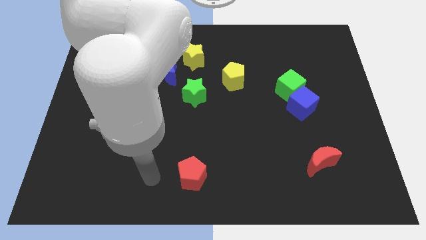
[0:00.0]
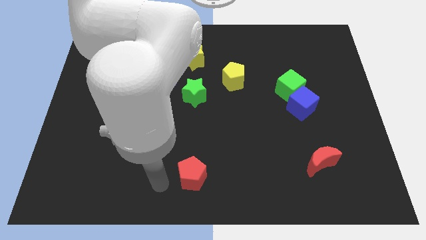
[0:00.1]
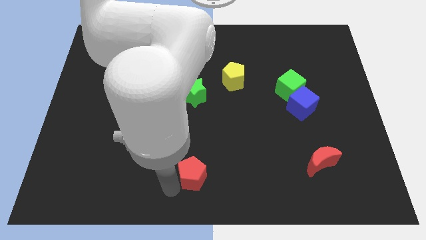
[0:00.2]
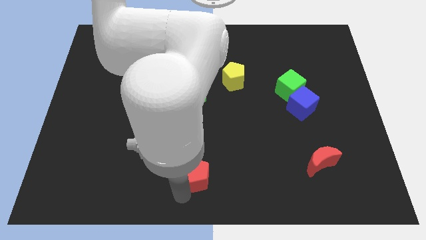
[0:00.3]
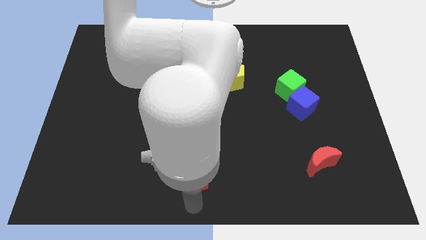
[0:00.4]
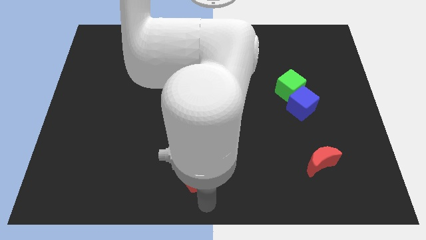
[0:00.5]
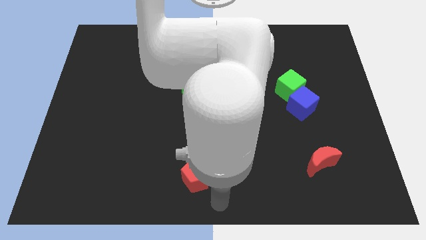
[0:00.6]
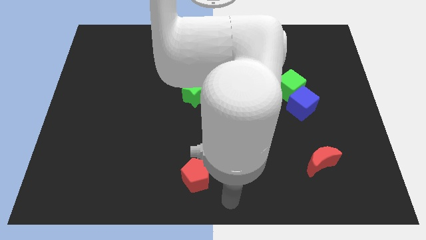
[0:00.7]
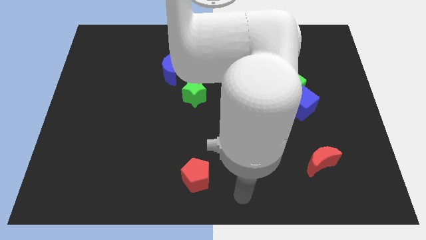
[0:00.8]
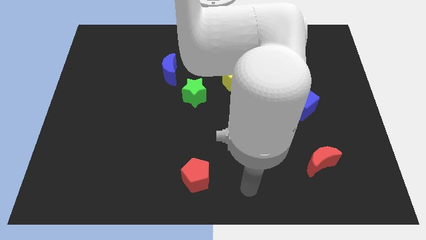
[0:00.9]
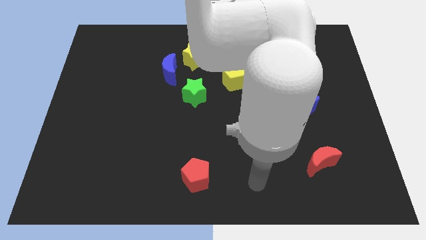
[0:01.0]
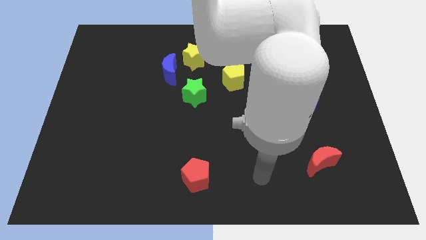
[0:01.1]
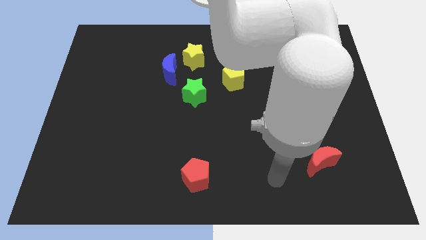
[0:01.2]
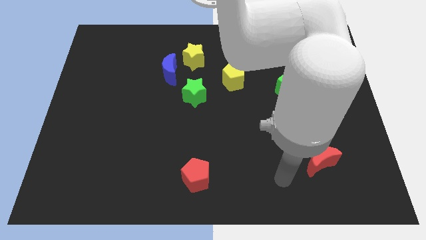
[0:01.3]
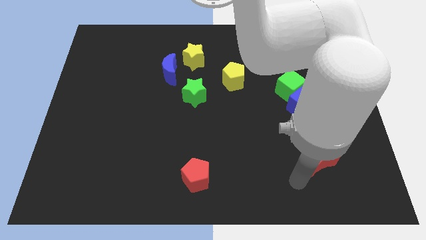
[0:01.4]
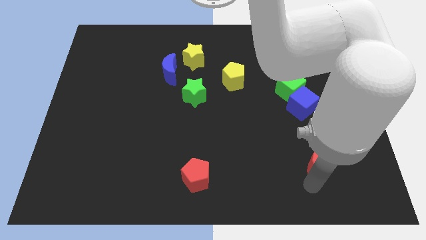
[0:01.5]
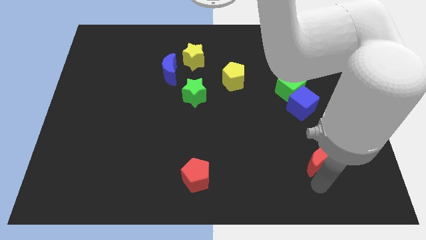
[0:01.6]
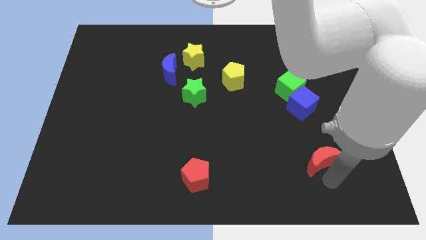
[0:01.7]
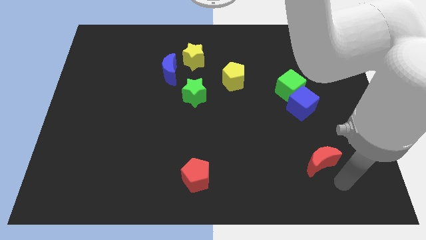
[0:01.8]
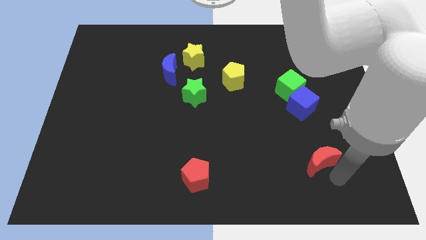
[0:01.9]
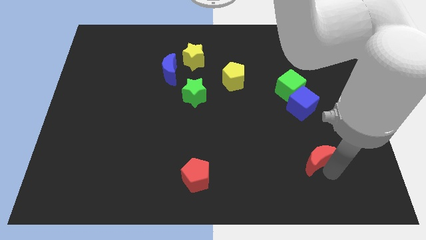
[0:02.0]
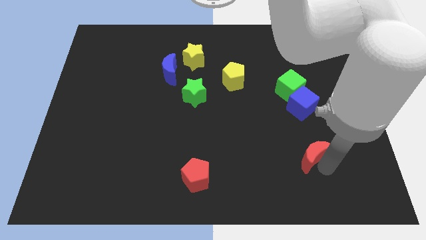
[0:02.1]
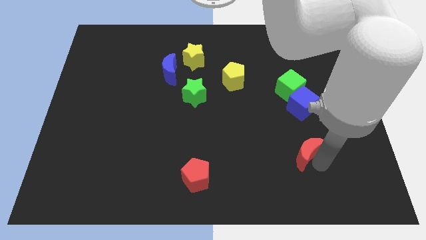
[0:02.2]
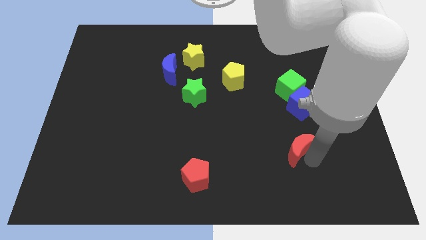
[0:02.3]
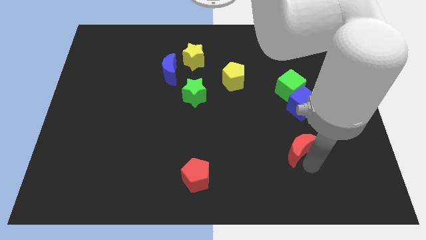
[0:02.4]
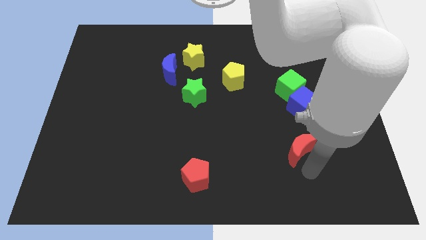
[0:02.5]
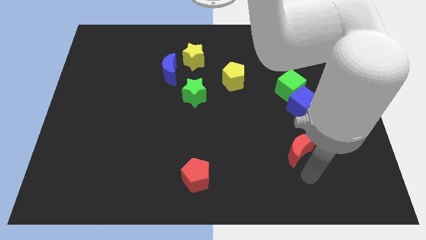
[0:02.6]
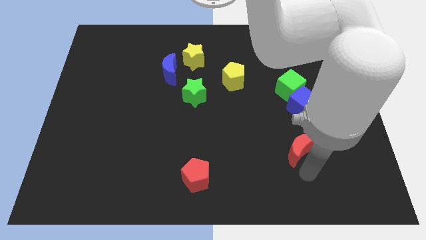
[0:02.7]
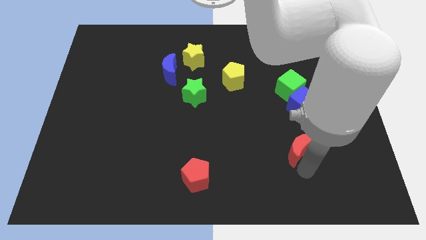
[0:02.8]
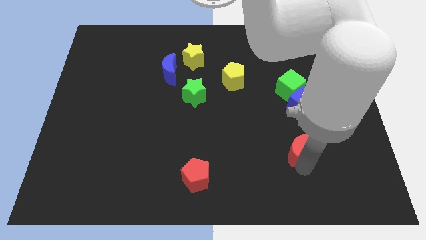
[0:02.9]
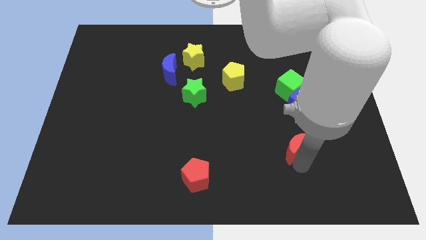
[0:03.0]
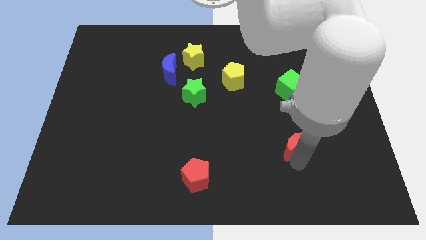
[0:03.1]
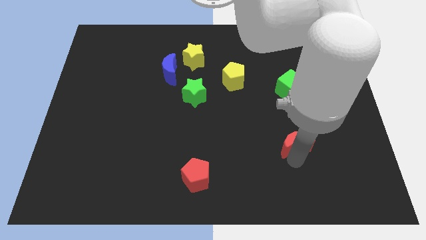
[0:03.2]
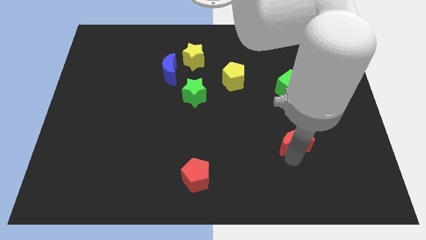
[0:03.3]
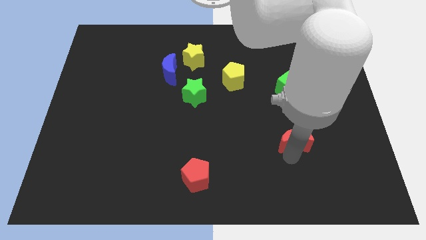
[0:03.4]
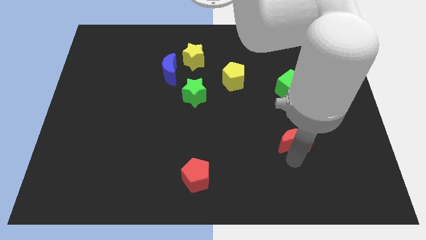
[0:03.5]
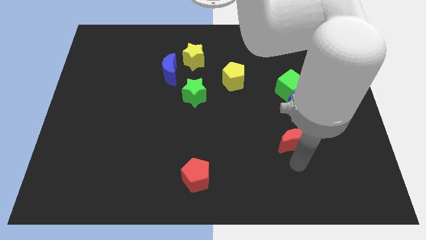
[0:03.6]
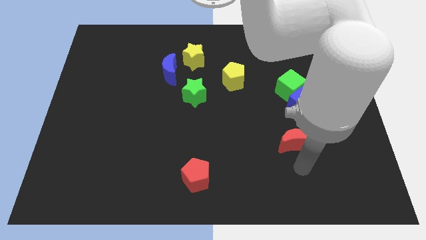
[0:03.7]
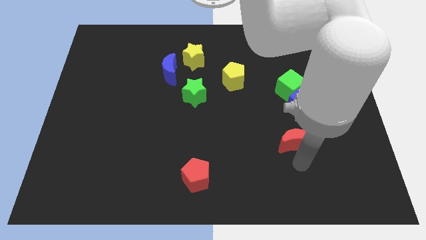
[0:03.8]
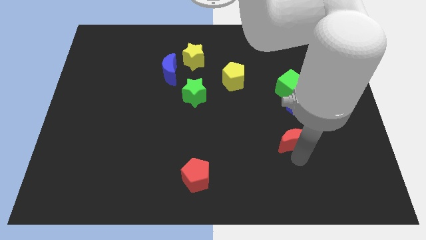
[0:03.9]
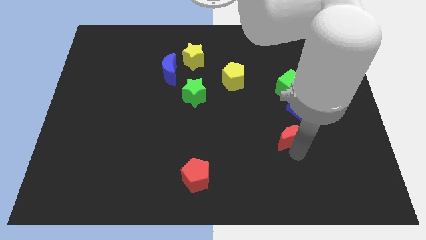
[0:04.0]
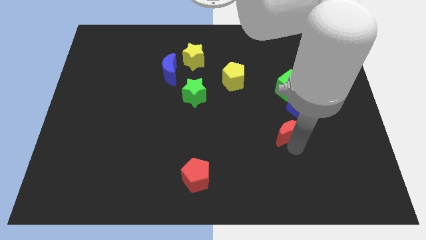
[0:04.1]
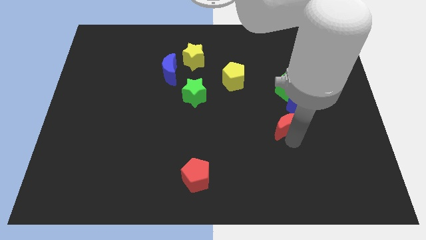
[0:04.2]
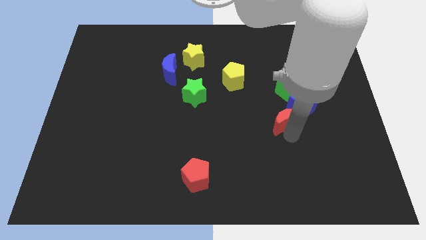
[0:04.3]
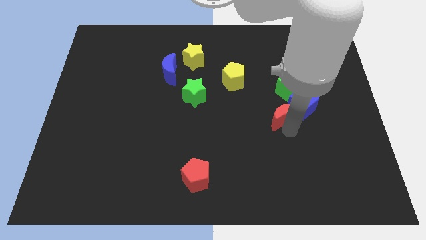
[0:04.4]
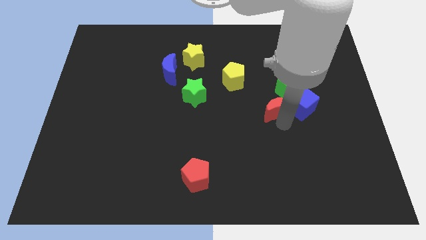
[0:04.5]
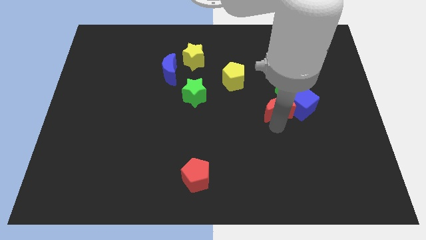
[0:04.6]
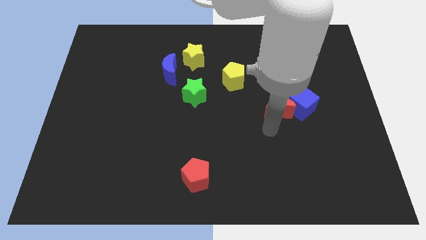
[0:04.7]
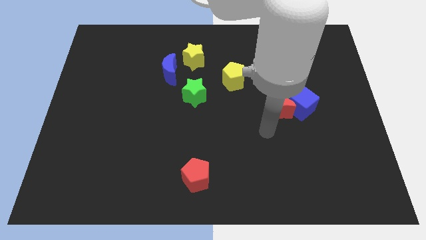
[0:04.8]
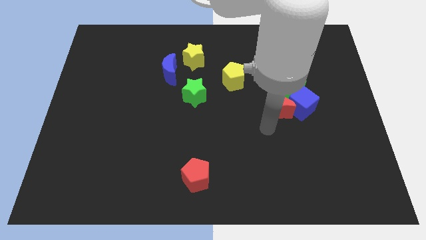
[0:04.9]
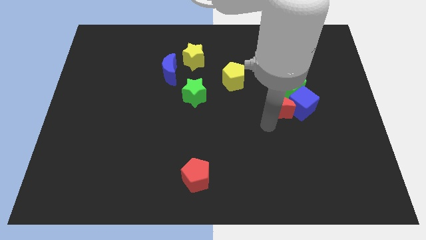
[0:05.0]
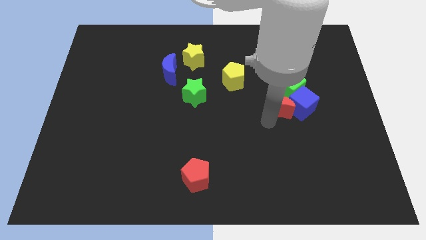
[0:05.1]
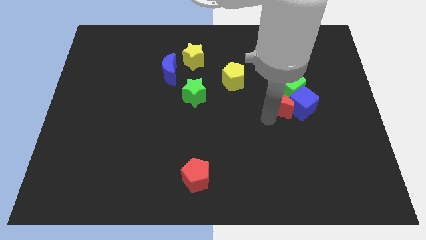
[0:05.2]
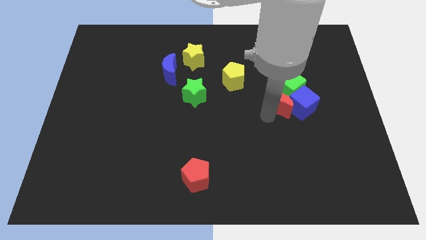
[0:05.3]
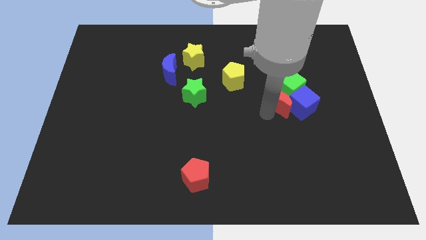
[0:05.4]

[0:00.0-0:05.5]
move the red moon close to the green cube

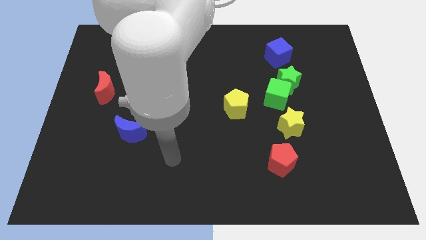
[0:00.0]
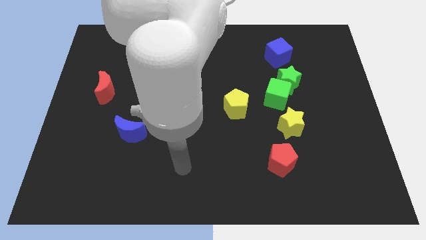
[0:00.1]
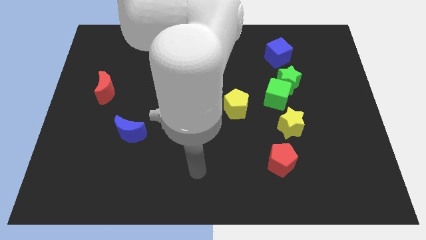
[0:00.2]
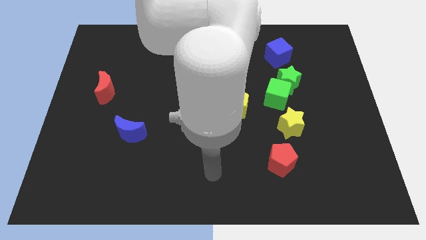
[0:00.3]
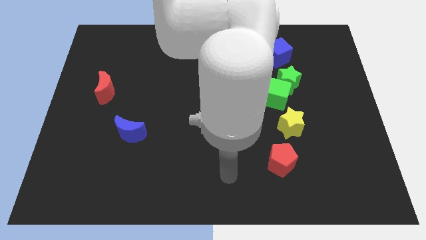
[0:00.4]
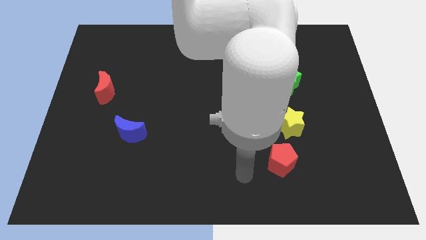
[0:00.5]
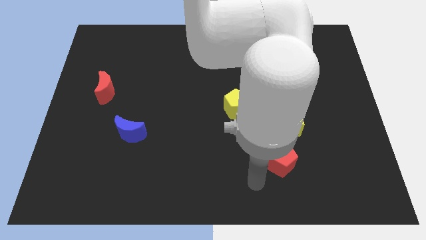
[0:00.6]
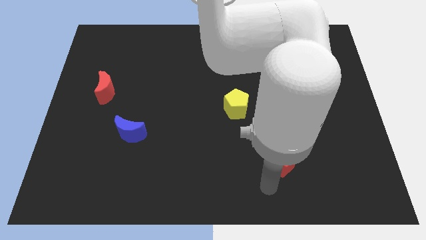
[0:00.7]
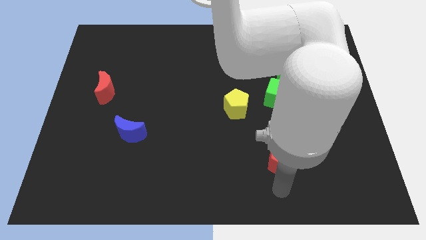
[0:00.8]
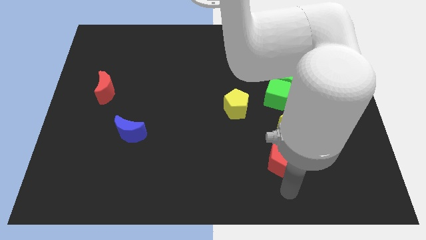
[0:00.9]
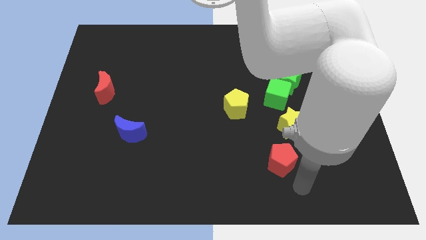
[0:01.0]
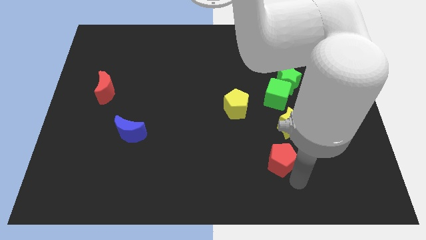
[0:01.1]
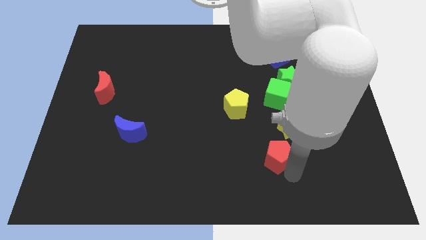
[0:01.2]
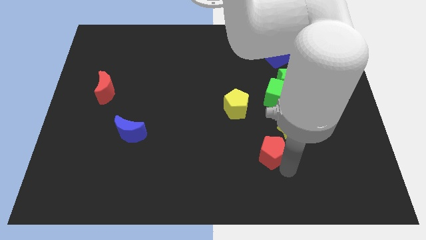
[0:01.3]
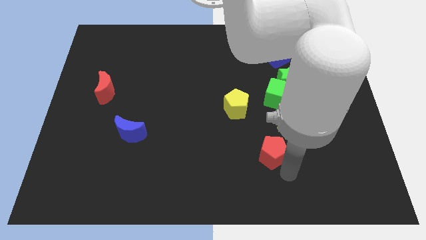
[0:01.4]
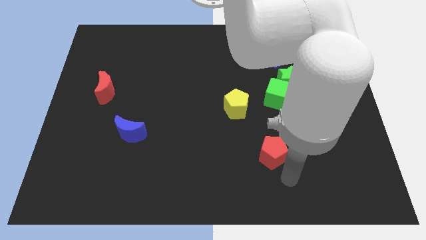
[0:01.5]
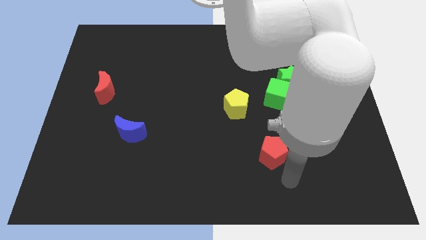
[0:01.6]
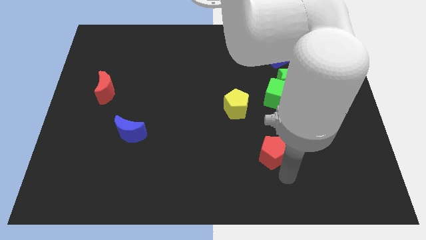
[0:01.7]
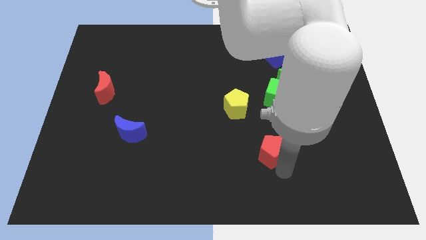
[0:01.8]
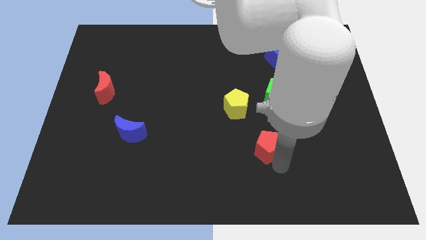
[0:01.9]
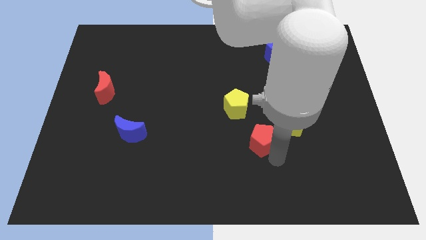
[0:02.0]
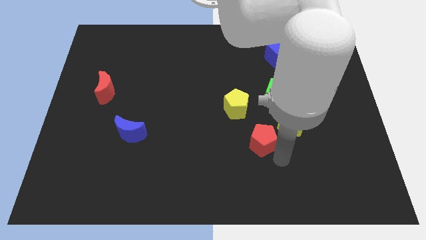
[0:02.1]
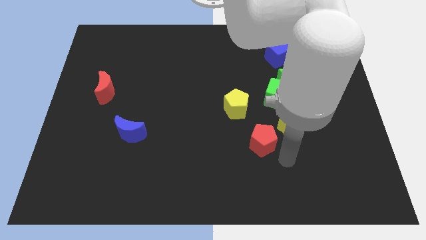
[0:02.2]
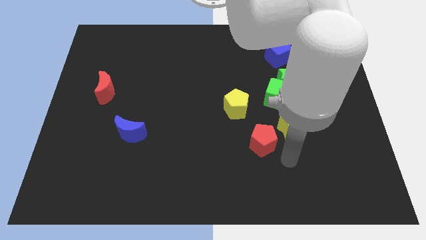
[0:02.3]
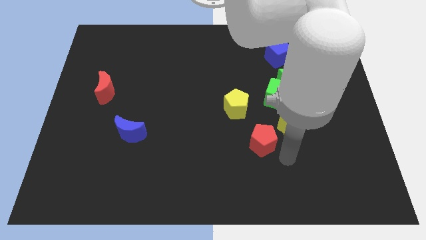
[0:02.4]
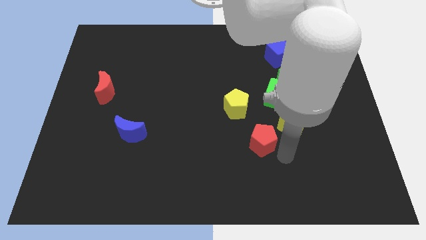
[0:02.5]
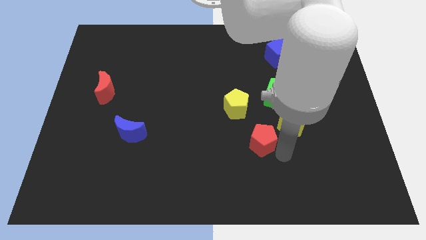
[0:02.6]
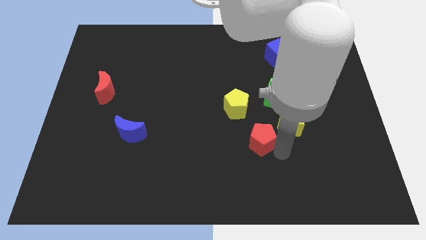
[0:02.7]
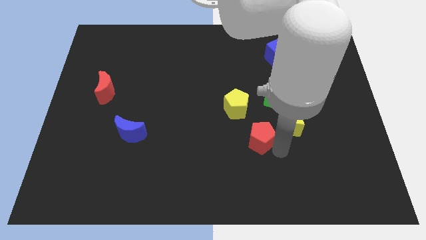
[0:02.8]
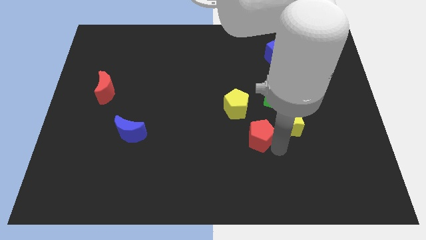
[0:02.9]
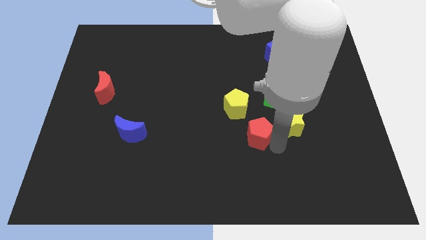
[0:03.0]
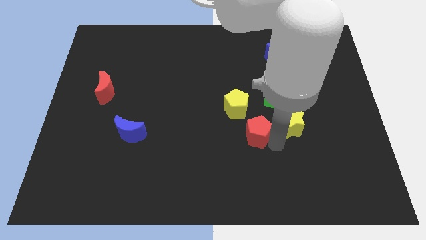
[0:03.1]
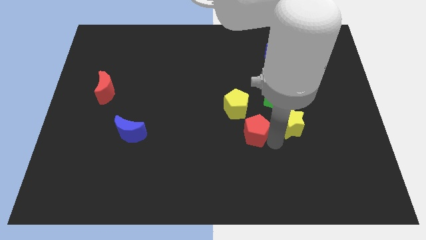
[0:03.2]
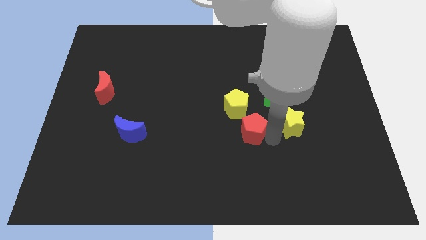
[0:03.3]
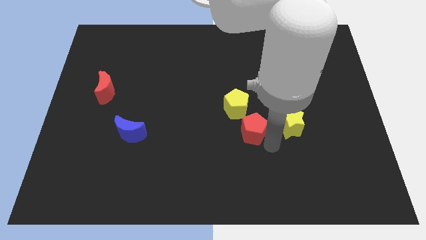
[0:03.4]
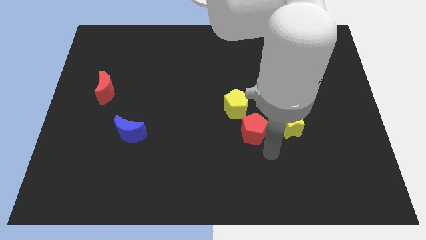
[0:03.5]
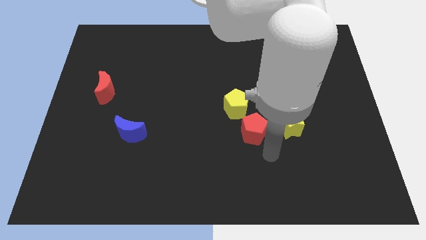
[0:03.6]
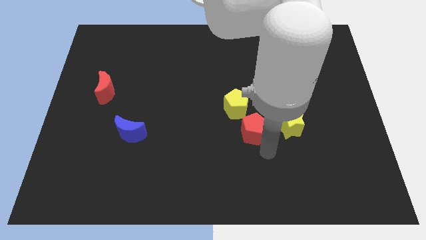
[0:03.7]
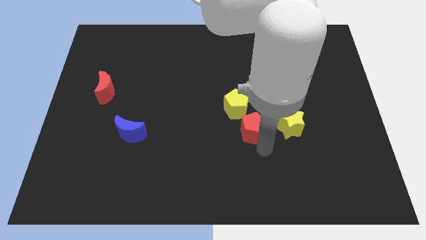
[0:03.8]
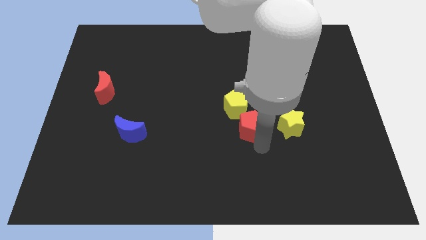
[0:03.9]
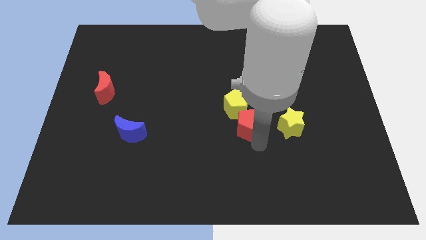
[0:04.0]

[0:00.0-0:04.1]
move the red pentagon next to the yellow pentagon
